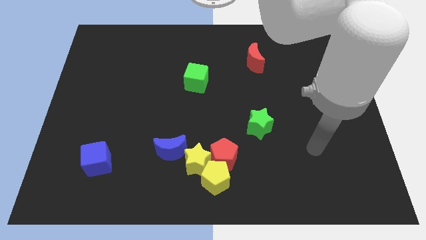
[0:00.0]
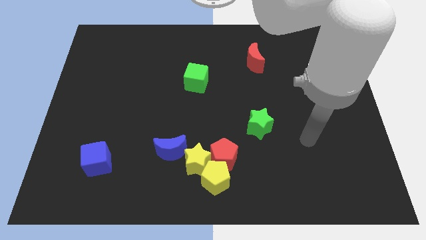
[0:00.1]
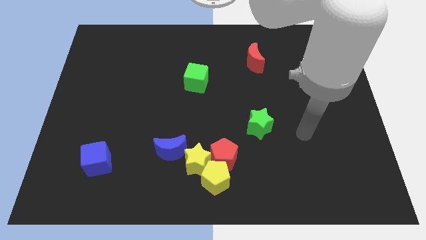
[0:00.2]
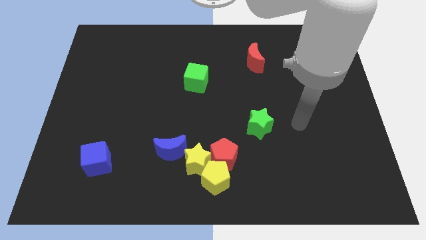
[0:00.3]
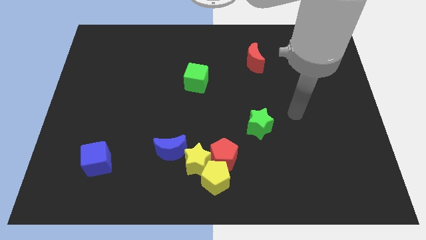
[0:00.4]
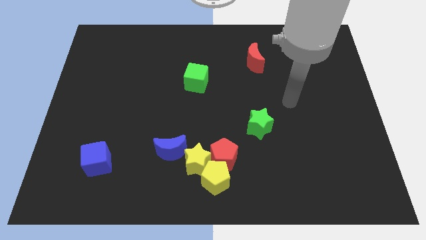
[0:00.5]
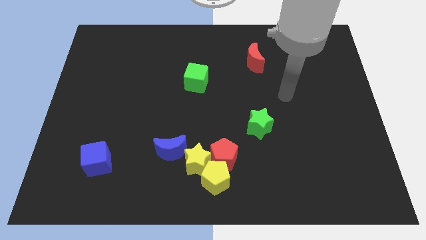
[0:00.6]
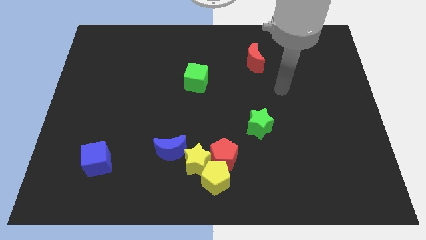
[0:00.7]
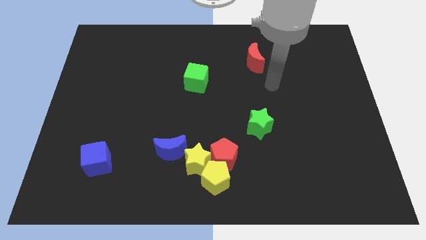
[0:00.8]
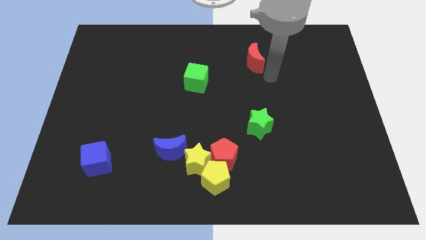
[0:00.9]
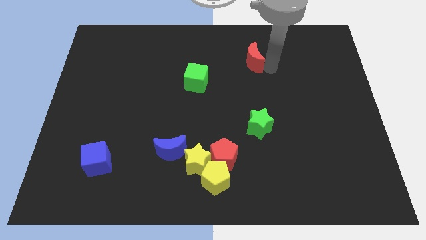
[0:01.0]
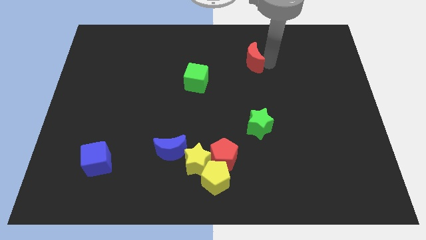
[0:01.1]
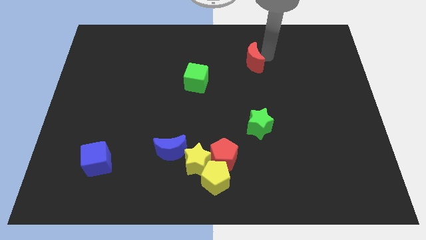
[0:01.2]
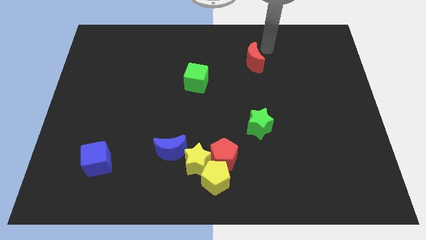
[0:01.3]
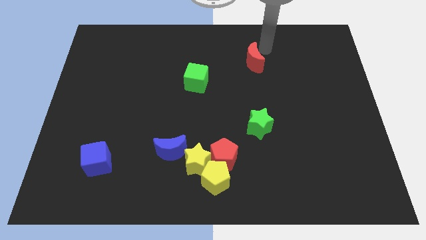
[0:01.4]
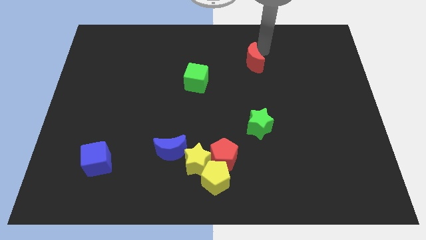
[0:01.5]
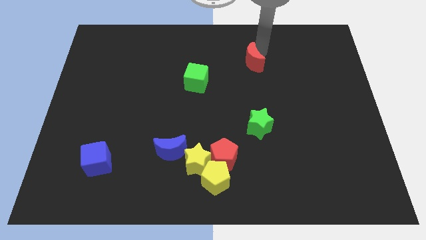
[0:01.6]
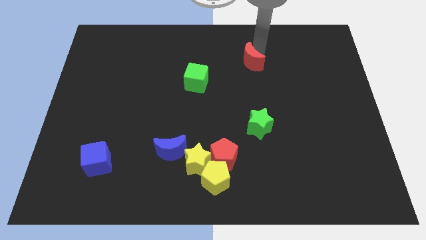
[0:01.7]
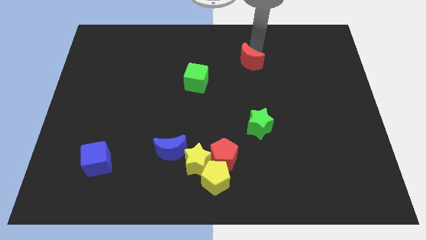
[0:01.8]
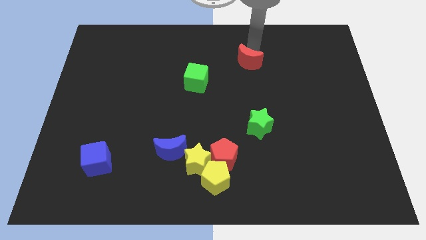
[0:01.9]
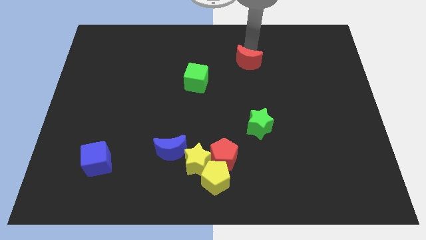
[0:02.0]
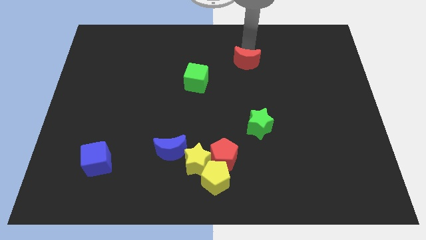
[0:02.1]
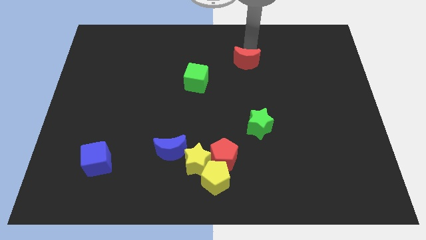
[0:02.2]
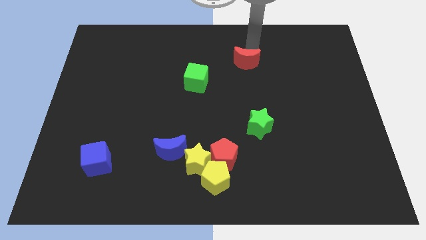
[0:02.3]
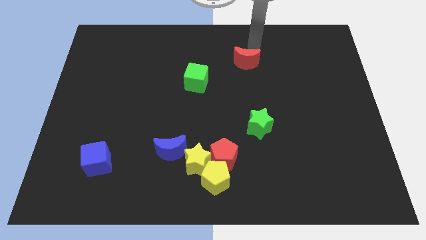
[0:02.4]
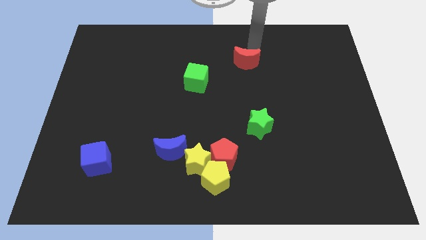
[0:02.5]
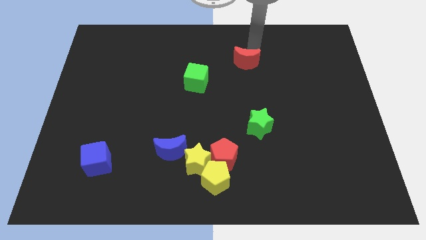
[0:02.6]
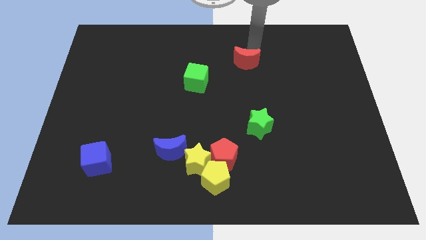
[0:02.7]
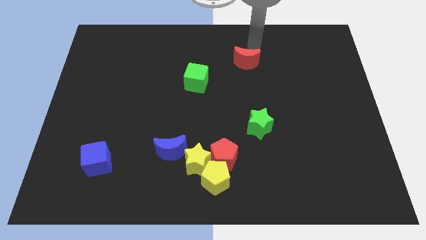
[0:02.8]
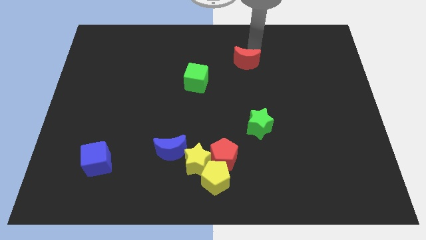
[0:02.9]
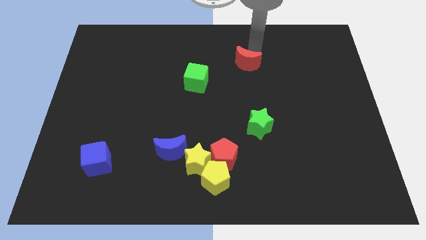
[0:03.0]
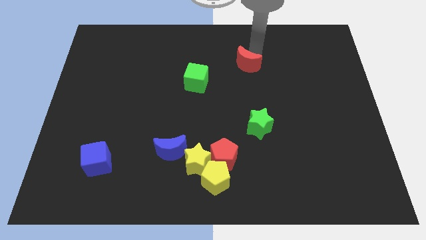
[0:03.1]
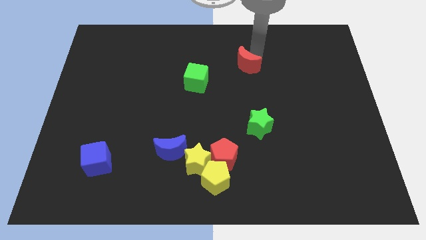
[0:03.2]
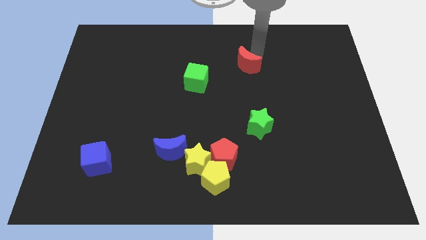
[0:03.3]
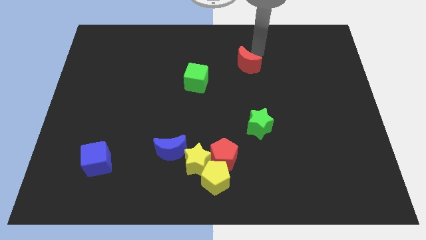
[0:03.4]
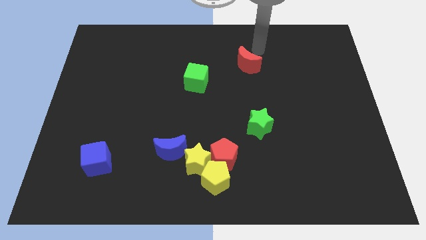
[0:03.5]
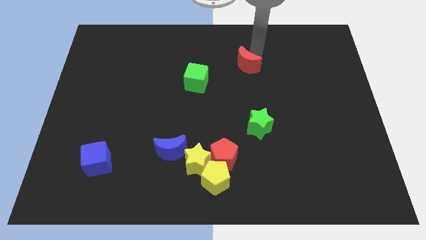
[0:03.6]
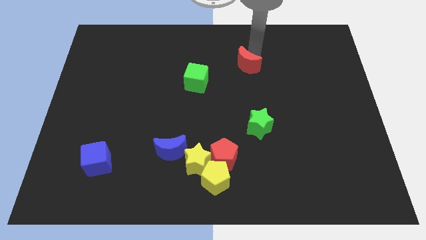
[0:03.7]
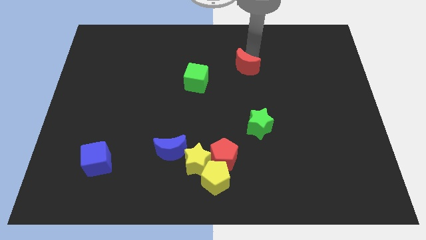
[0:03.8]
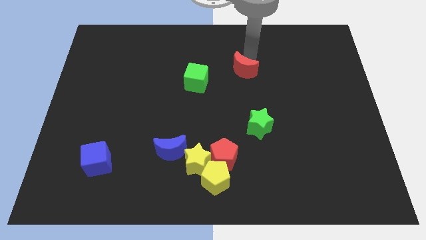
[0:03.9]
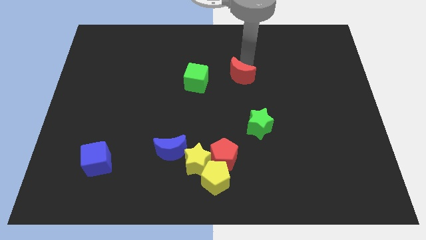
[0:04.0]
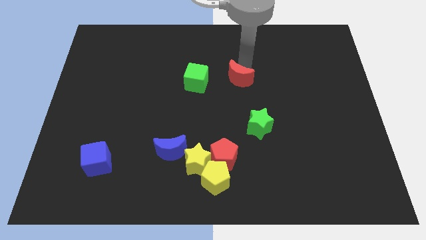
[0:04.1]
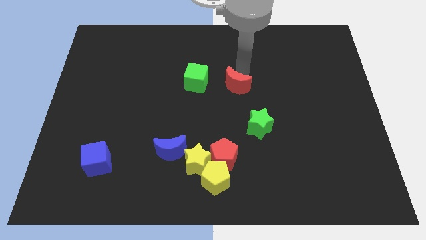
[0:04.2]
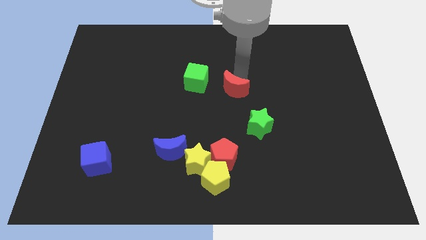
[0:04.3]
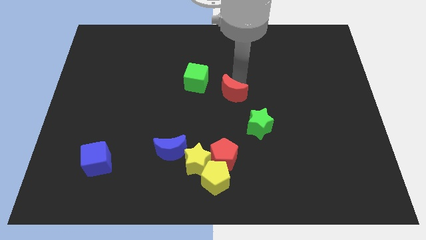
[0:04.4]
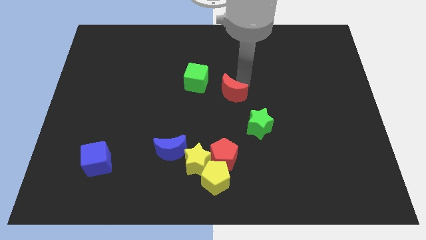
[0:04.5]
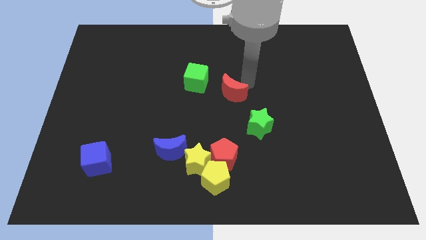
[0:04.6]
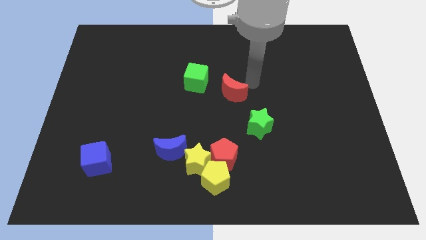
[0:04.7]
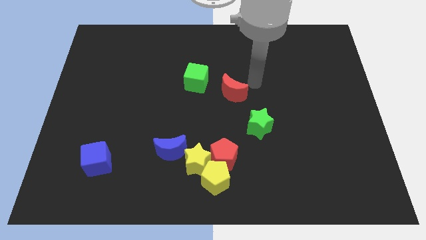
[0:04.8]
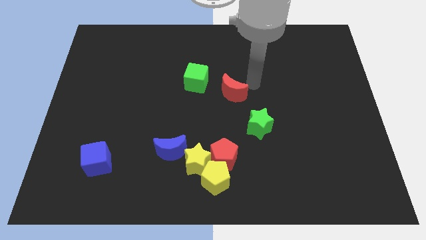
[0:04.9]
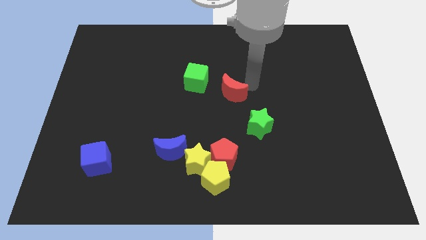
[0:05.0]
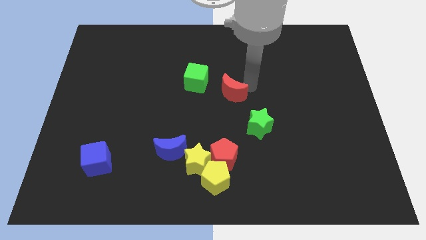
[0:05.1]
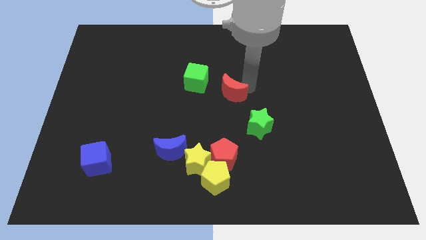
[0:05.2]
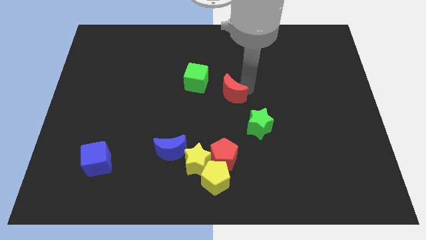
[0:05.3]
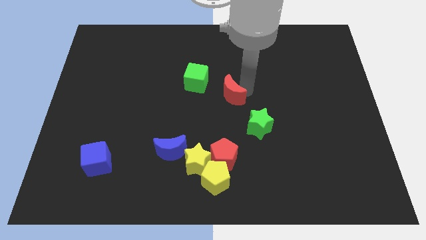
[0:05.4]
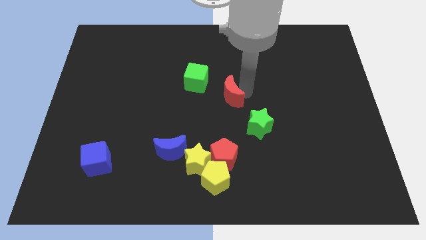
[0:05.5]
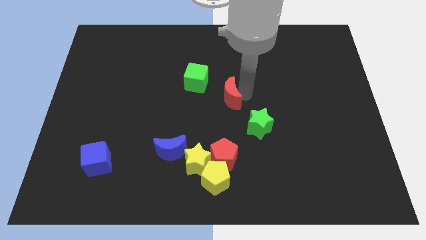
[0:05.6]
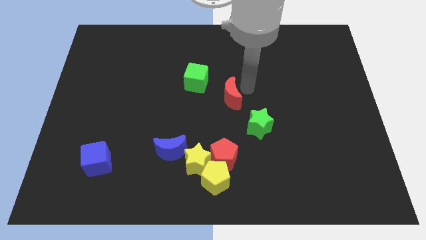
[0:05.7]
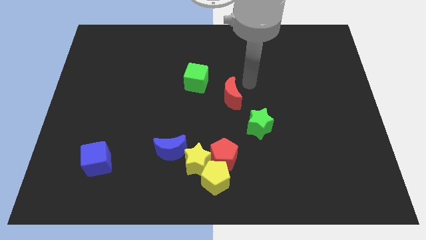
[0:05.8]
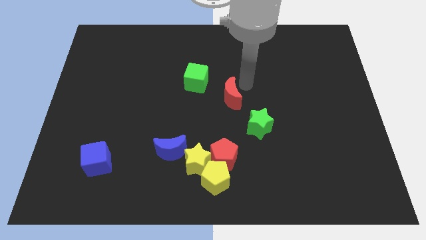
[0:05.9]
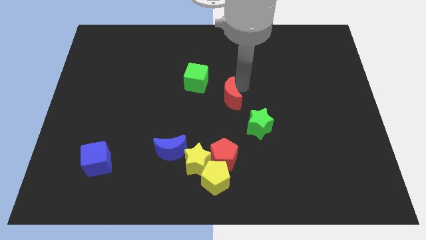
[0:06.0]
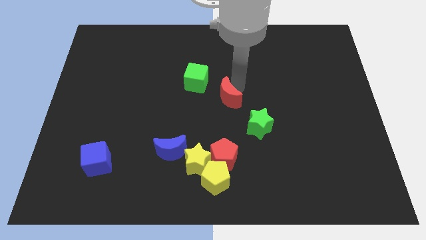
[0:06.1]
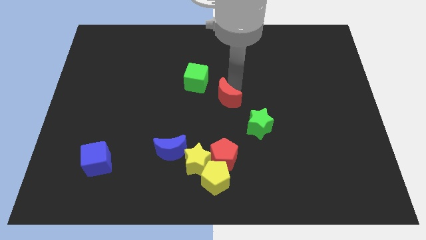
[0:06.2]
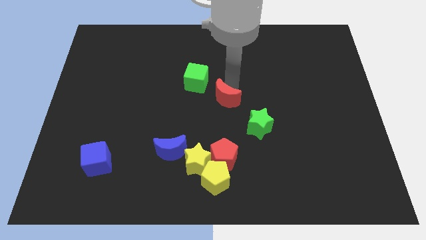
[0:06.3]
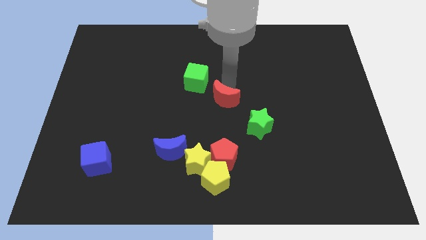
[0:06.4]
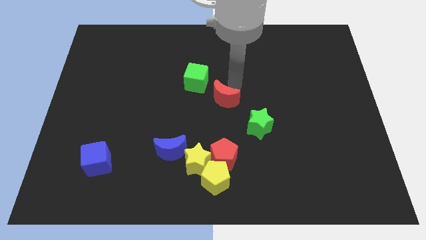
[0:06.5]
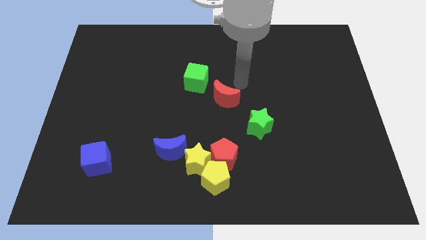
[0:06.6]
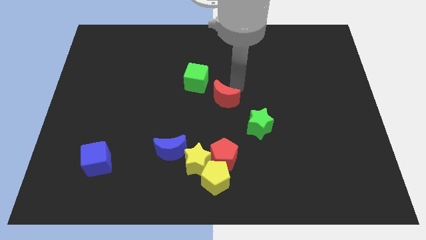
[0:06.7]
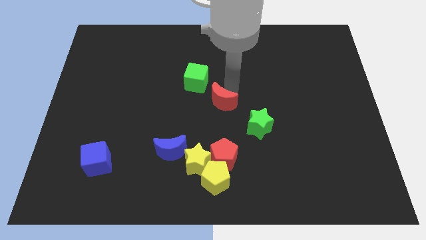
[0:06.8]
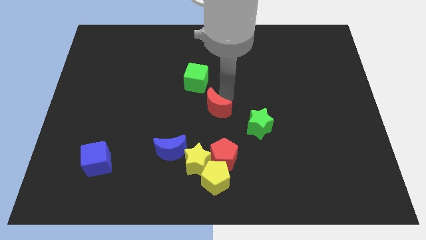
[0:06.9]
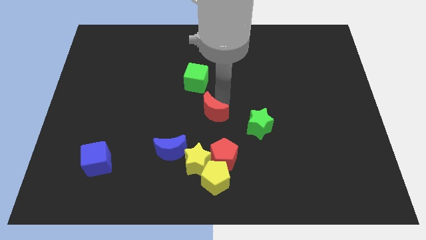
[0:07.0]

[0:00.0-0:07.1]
slide the red moon to the top of the yellow star

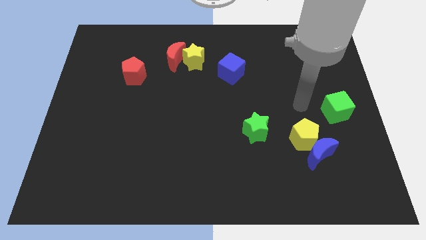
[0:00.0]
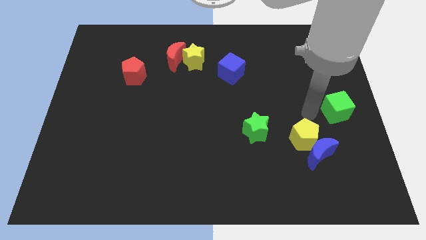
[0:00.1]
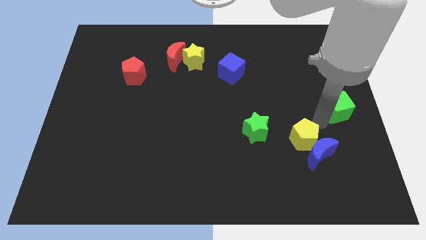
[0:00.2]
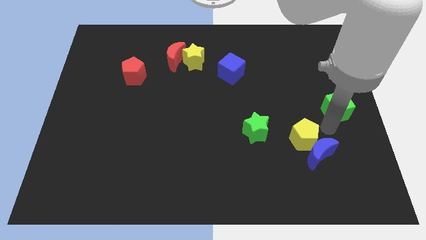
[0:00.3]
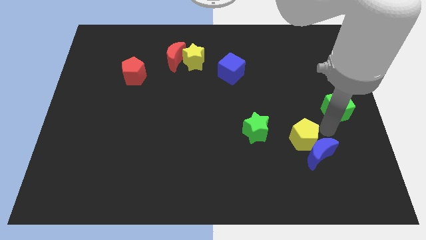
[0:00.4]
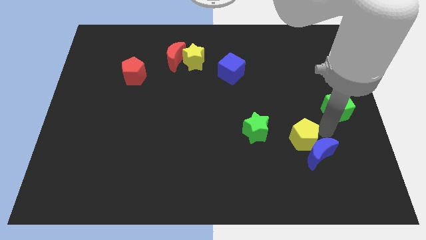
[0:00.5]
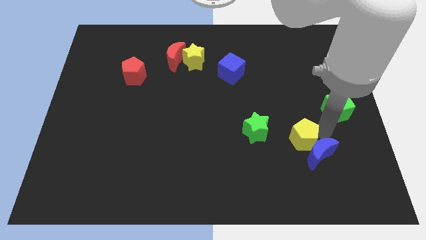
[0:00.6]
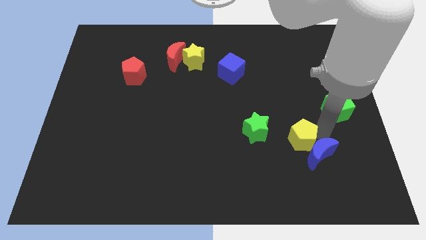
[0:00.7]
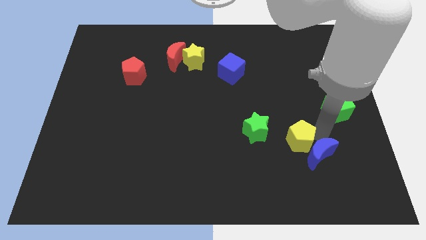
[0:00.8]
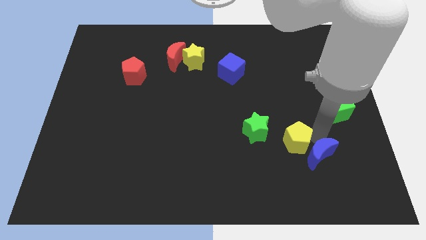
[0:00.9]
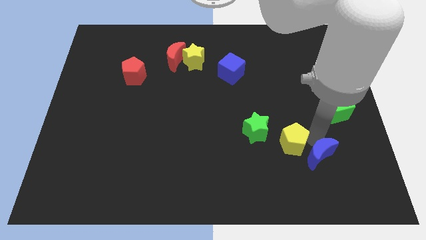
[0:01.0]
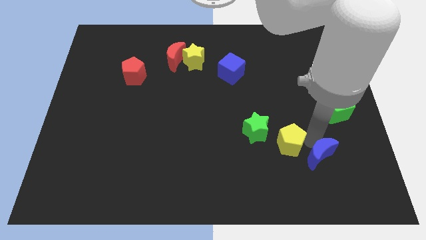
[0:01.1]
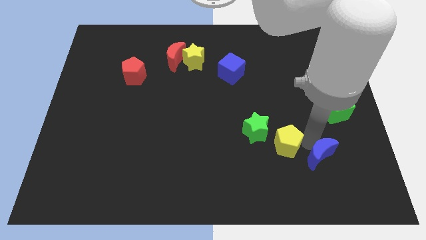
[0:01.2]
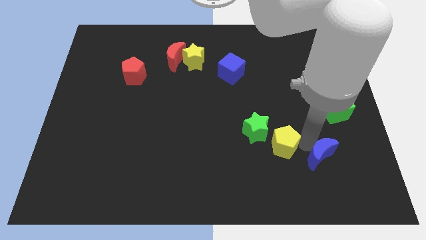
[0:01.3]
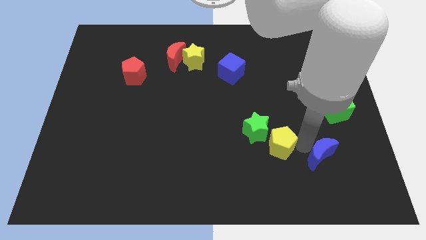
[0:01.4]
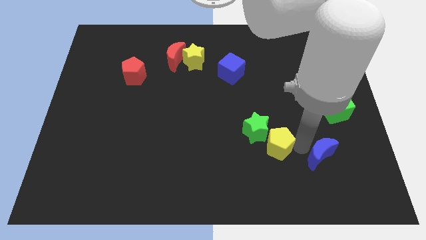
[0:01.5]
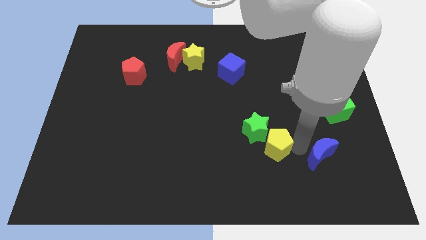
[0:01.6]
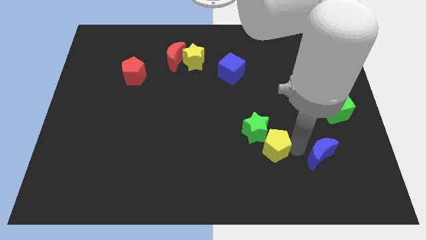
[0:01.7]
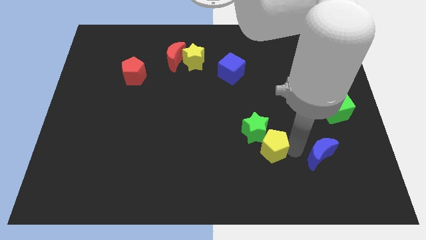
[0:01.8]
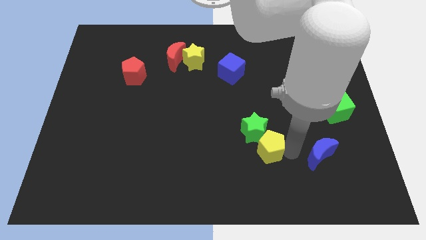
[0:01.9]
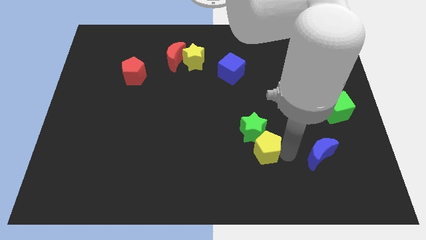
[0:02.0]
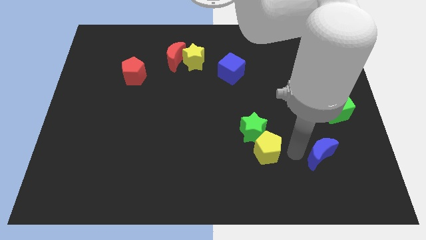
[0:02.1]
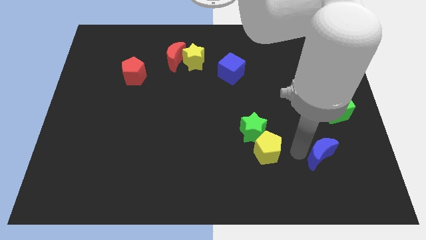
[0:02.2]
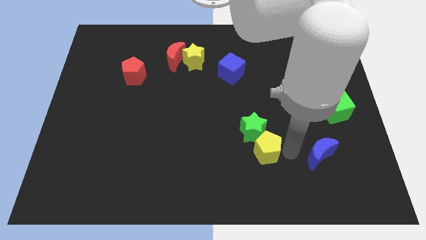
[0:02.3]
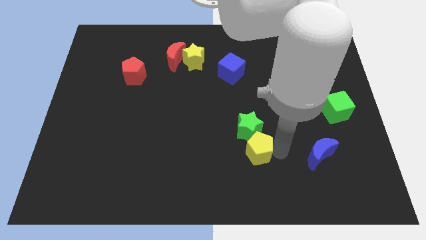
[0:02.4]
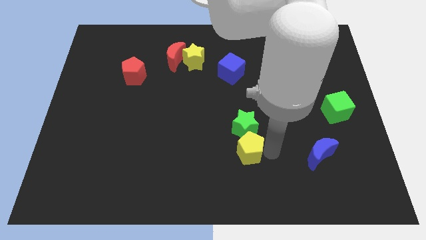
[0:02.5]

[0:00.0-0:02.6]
push the yellow pentagon diagonally down and to the left of the green star
